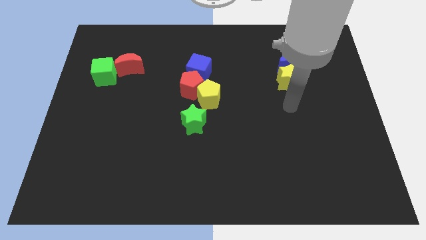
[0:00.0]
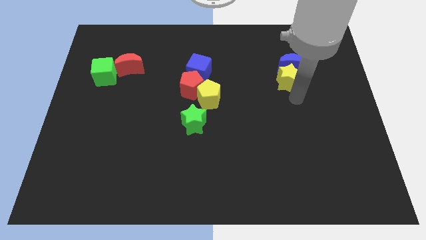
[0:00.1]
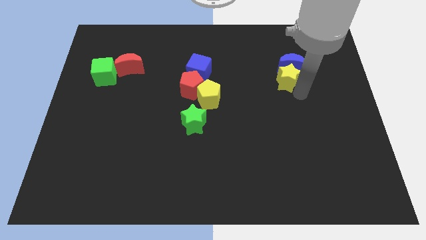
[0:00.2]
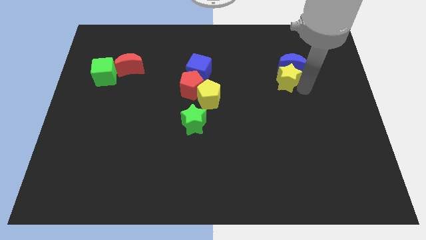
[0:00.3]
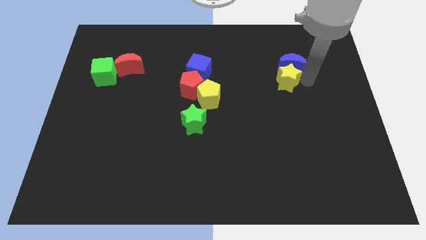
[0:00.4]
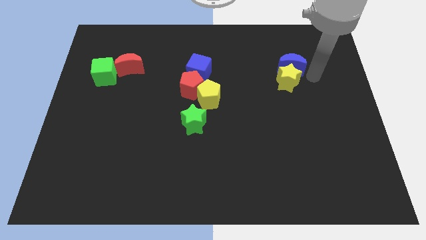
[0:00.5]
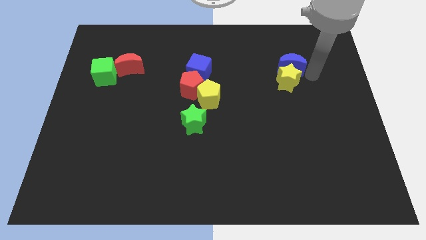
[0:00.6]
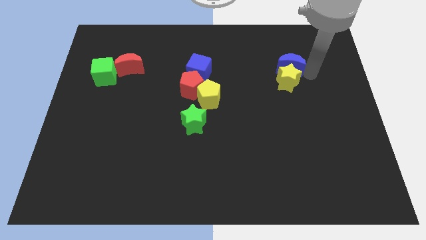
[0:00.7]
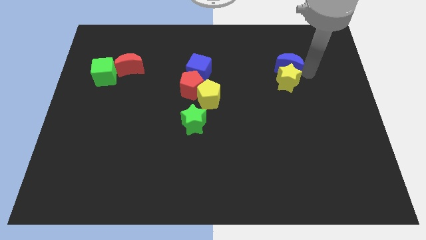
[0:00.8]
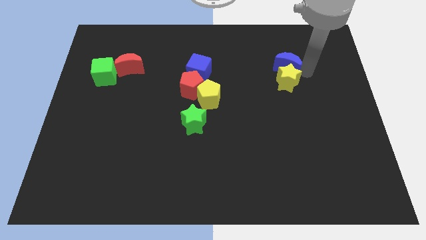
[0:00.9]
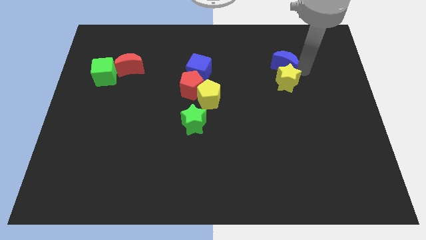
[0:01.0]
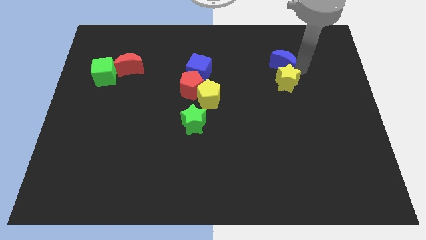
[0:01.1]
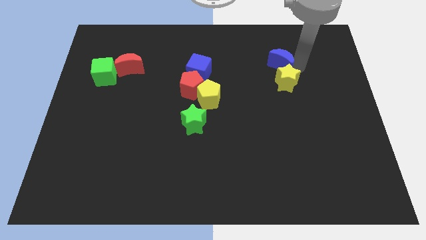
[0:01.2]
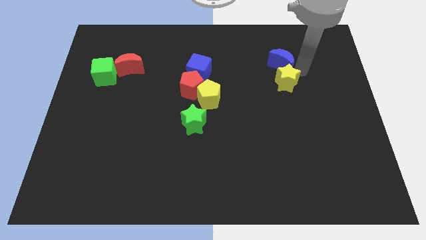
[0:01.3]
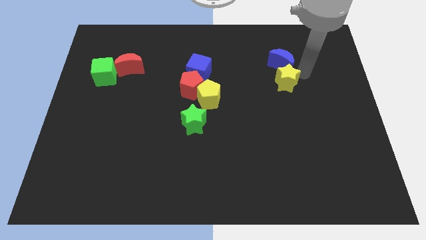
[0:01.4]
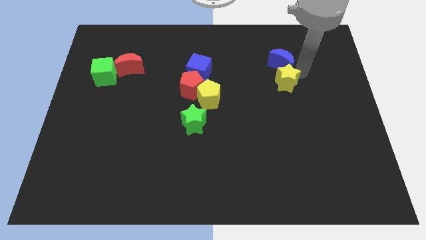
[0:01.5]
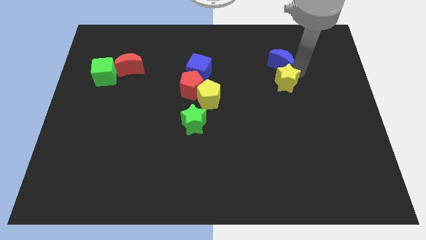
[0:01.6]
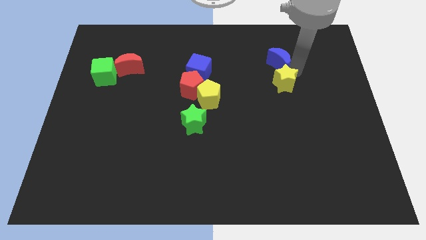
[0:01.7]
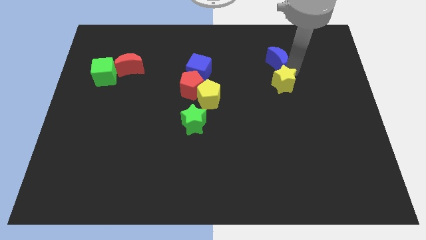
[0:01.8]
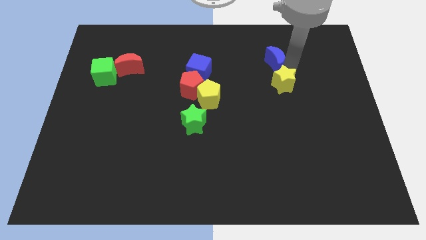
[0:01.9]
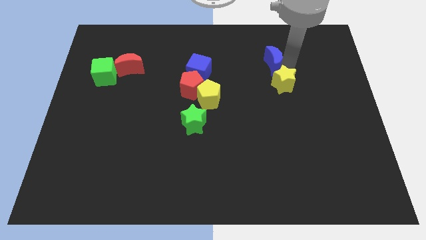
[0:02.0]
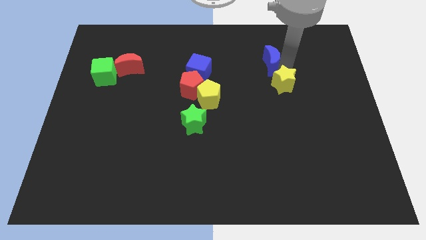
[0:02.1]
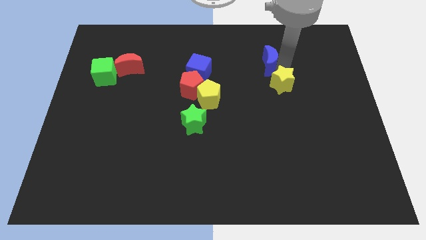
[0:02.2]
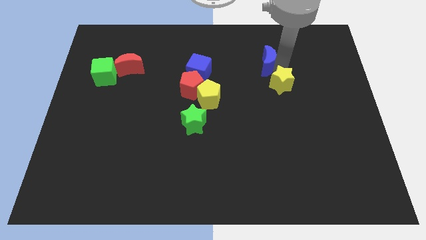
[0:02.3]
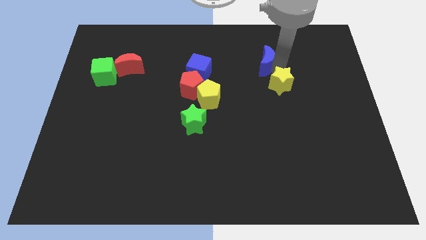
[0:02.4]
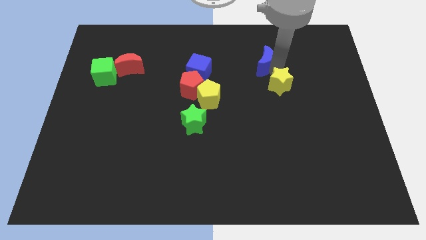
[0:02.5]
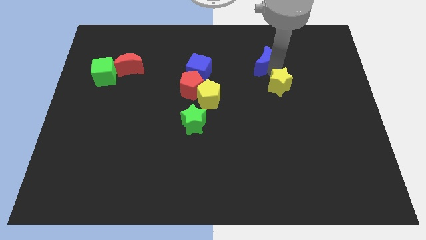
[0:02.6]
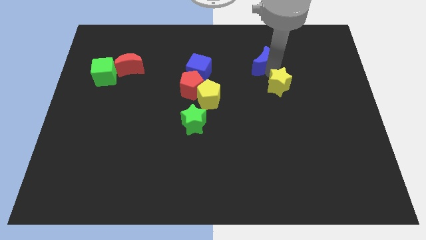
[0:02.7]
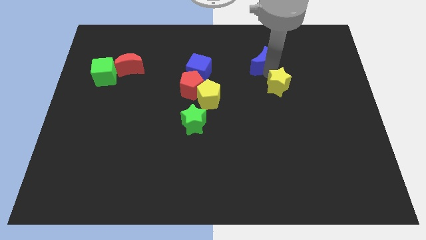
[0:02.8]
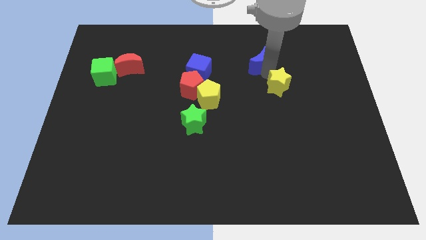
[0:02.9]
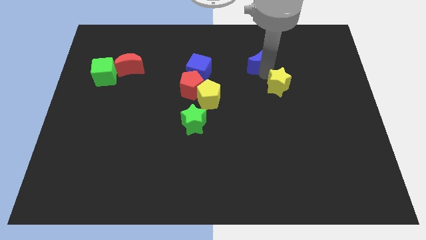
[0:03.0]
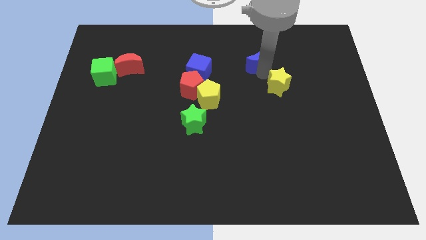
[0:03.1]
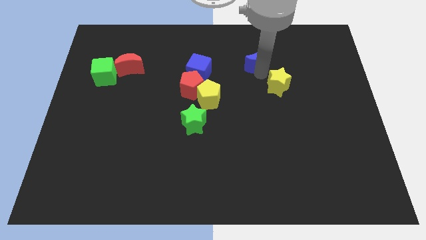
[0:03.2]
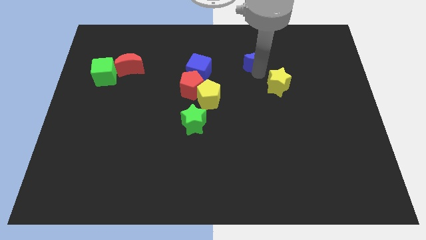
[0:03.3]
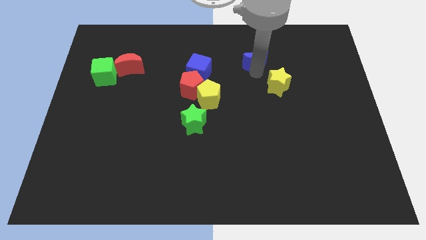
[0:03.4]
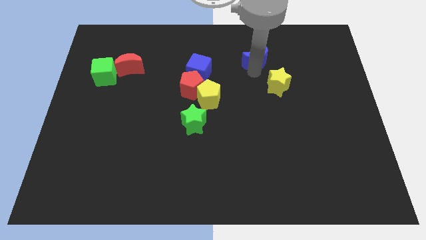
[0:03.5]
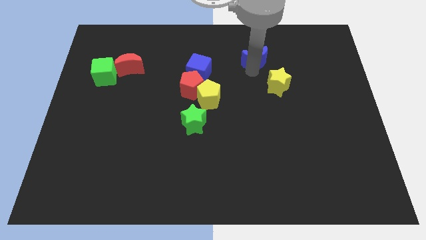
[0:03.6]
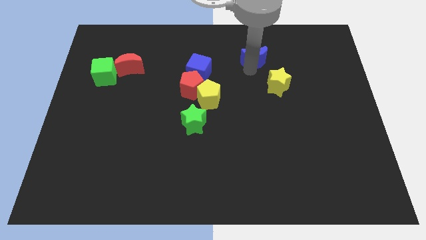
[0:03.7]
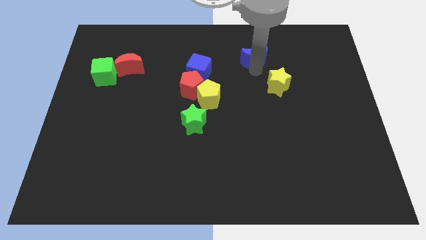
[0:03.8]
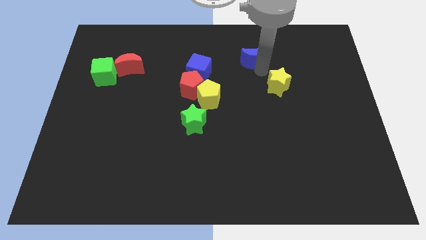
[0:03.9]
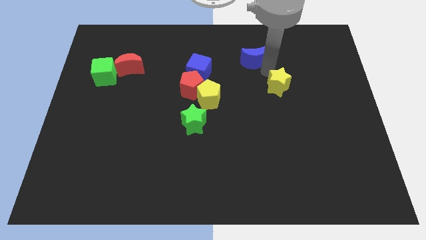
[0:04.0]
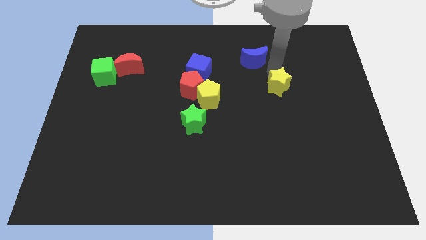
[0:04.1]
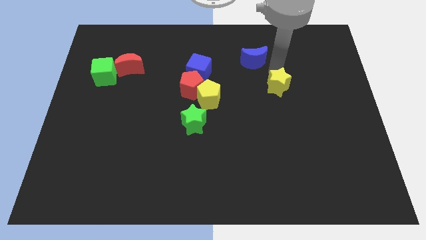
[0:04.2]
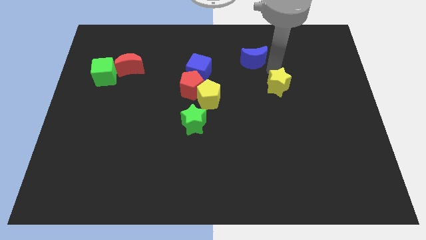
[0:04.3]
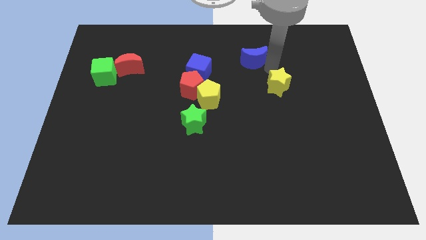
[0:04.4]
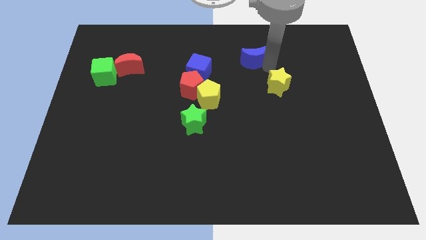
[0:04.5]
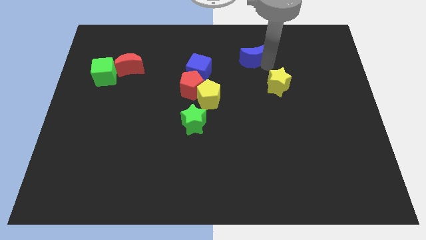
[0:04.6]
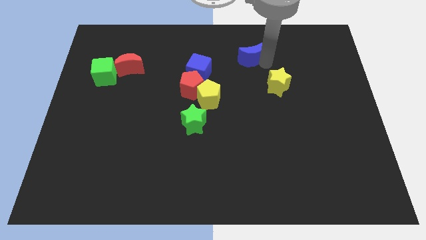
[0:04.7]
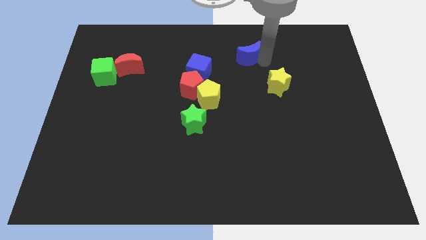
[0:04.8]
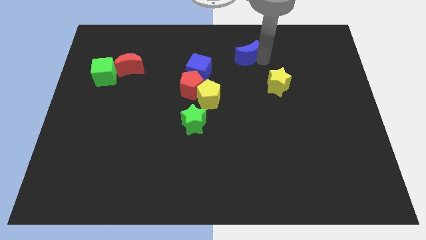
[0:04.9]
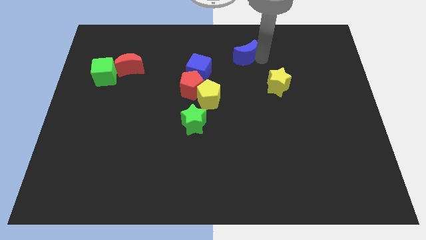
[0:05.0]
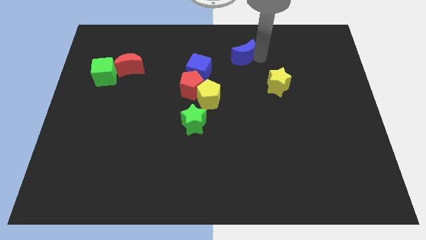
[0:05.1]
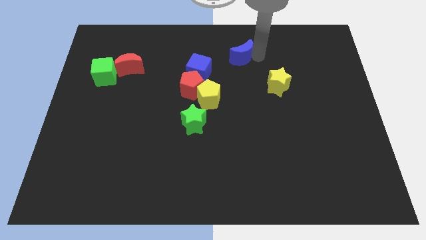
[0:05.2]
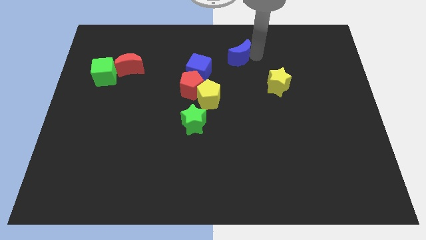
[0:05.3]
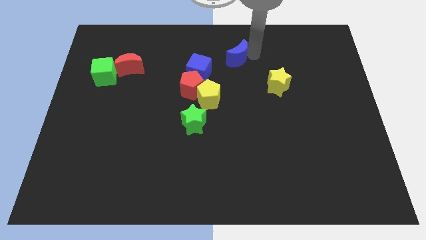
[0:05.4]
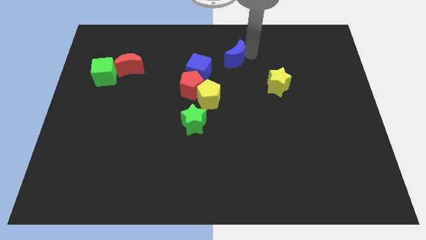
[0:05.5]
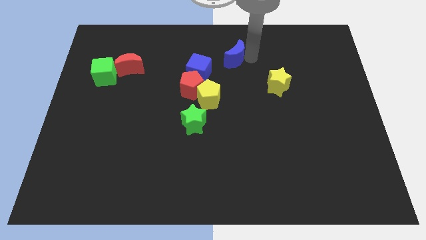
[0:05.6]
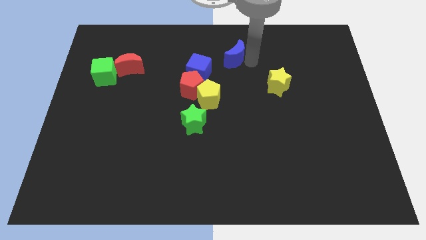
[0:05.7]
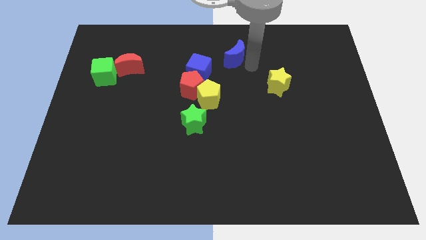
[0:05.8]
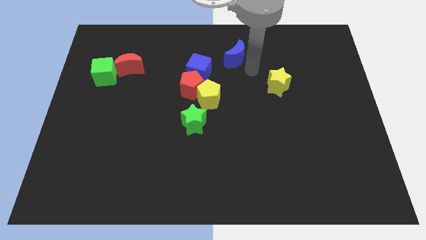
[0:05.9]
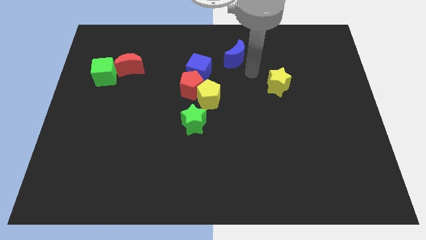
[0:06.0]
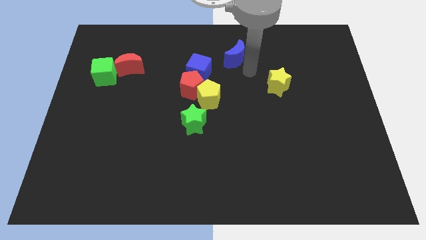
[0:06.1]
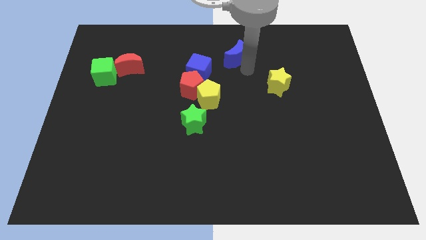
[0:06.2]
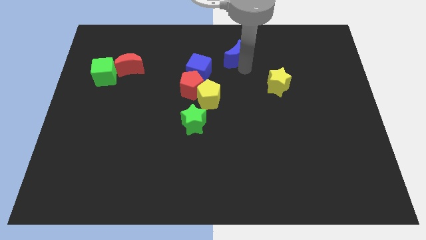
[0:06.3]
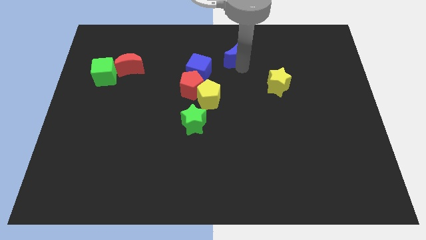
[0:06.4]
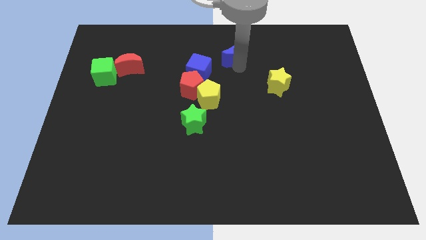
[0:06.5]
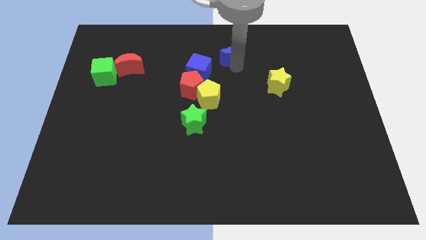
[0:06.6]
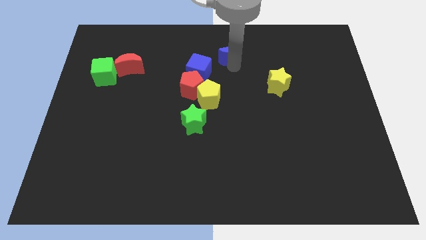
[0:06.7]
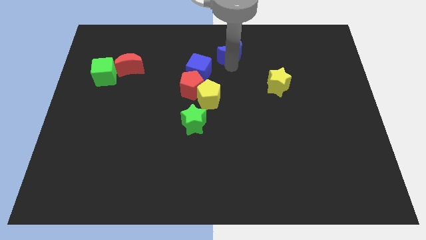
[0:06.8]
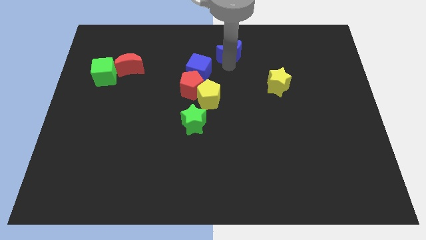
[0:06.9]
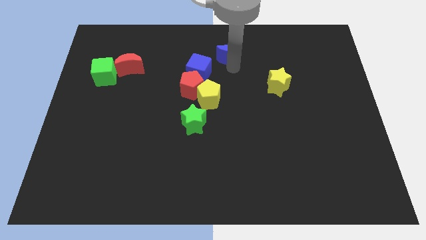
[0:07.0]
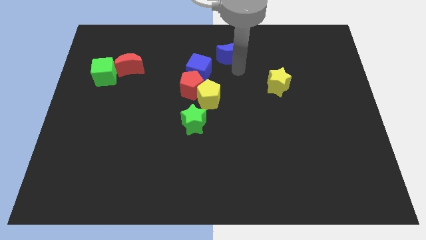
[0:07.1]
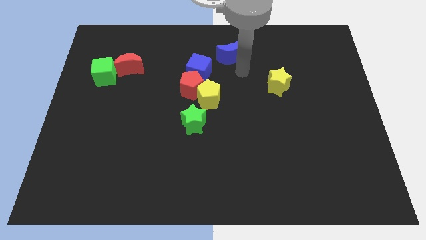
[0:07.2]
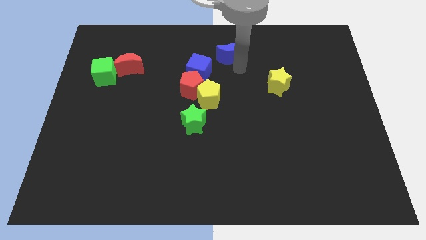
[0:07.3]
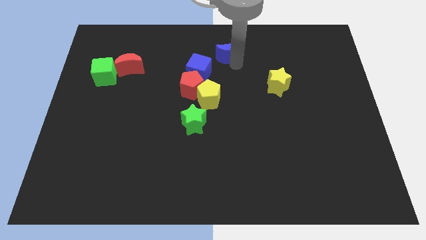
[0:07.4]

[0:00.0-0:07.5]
move the blue moon to the top
